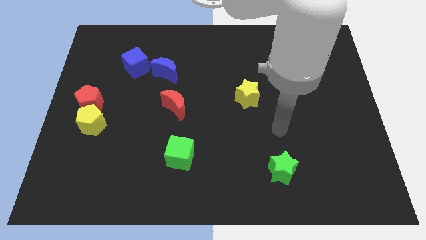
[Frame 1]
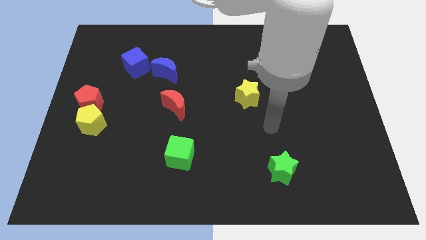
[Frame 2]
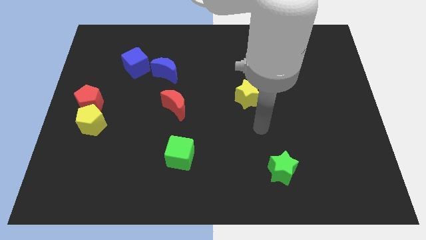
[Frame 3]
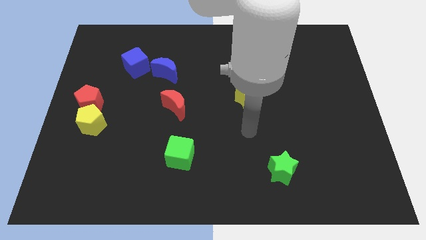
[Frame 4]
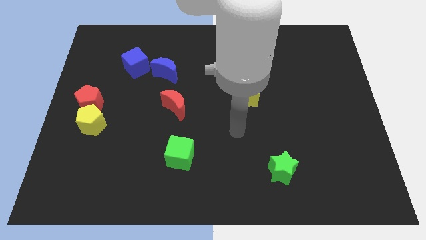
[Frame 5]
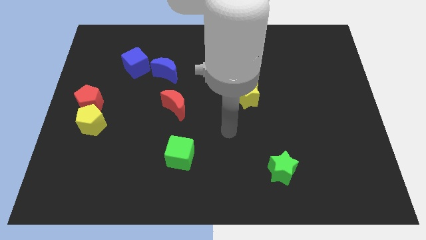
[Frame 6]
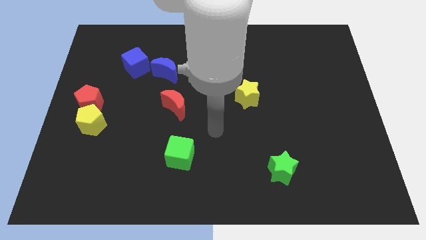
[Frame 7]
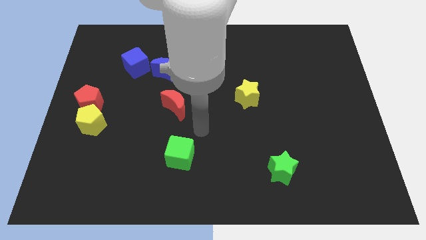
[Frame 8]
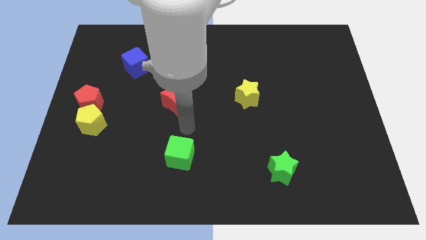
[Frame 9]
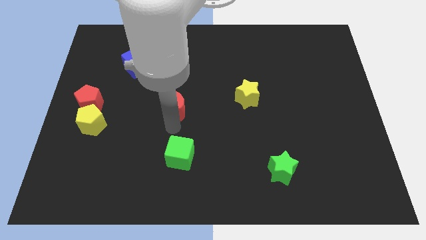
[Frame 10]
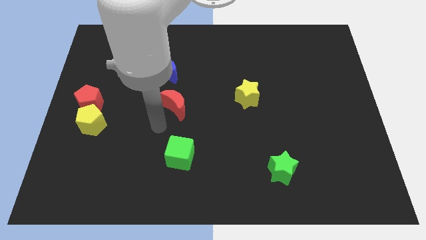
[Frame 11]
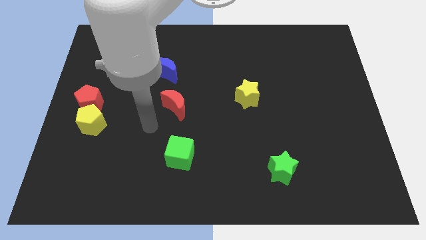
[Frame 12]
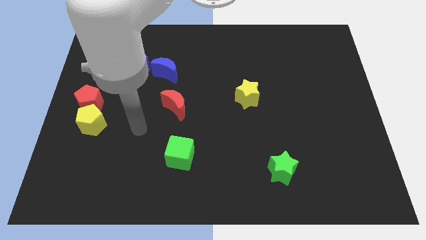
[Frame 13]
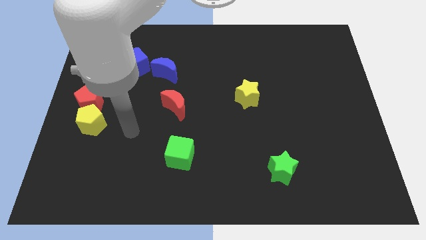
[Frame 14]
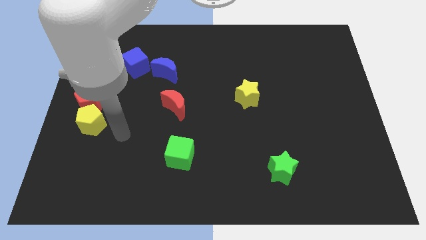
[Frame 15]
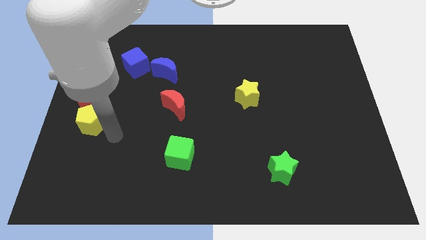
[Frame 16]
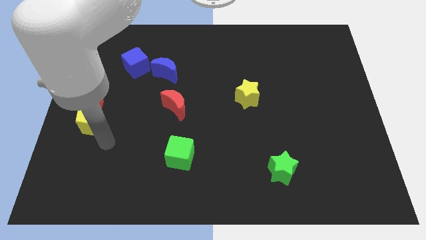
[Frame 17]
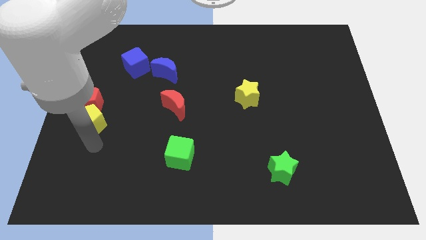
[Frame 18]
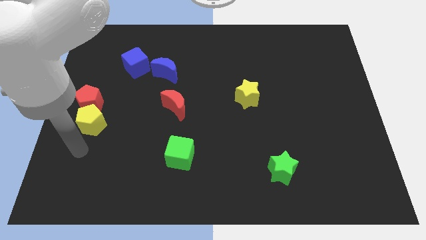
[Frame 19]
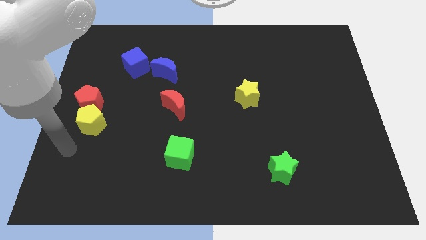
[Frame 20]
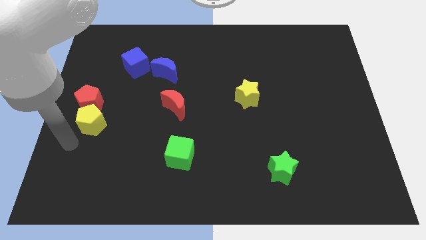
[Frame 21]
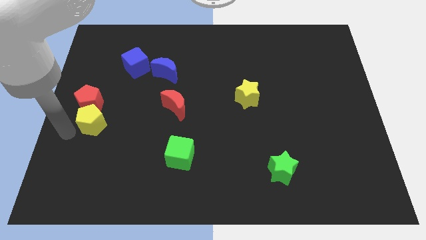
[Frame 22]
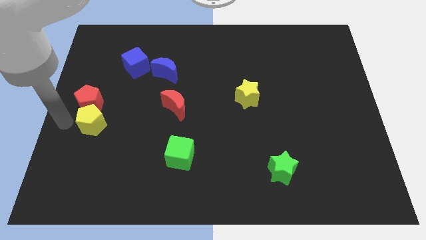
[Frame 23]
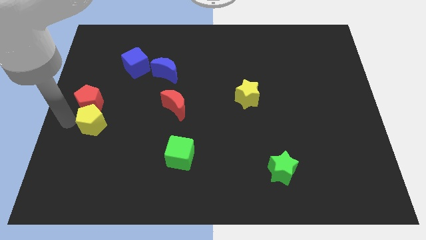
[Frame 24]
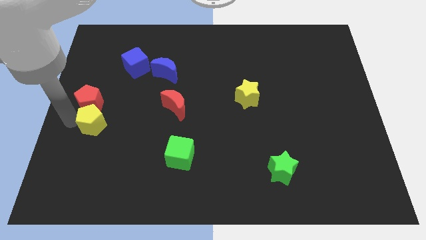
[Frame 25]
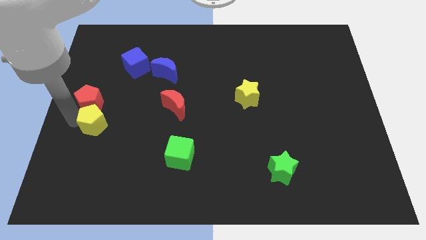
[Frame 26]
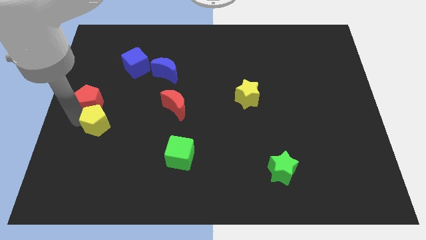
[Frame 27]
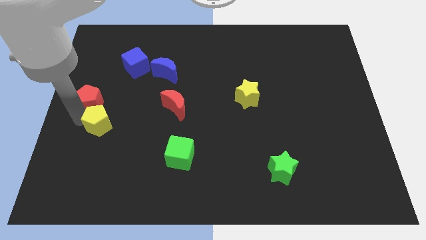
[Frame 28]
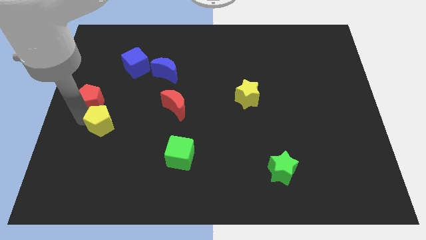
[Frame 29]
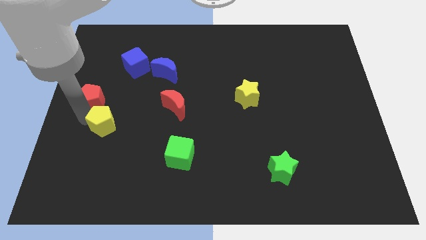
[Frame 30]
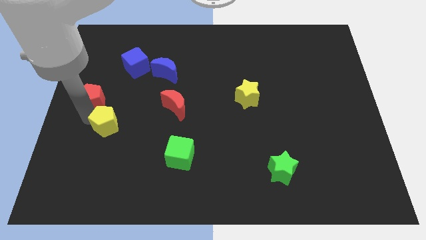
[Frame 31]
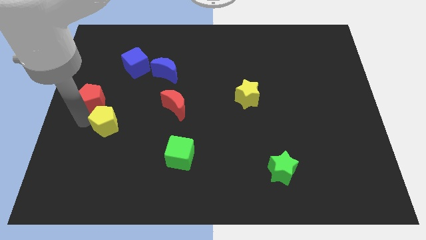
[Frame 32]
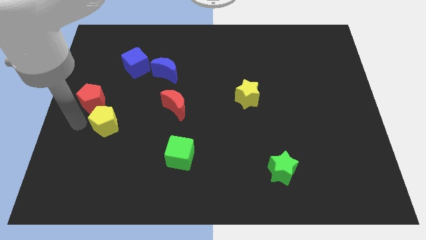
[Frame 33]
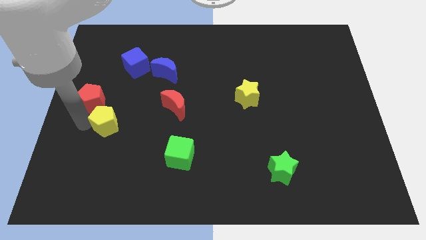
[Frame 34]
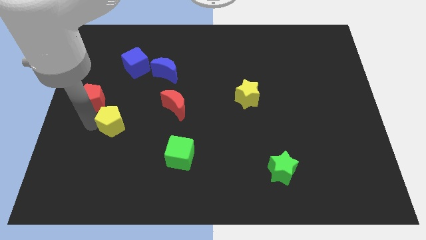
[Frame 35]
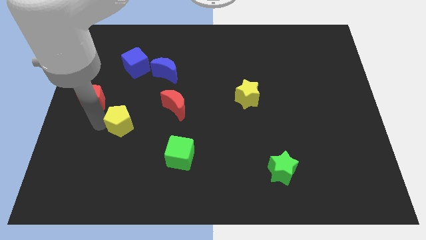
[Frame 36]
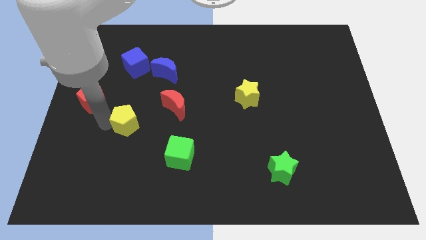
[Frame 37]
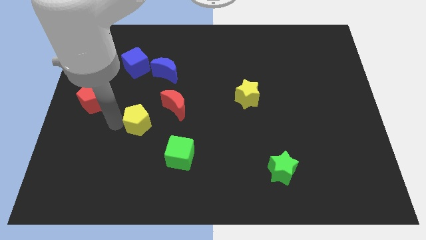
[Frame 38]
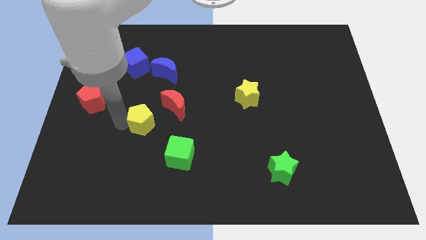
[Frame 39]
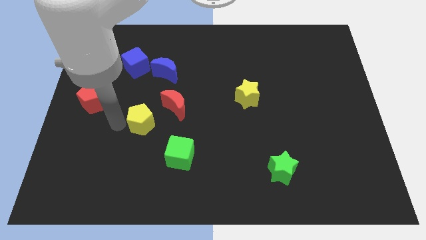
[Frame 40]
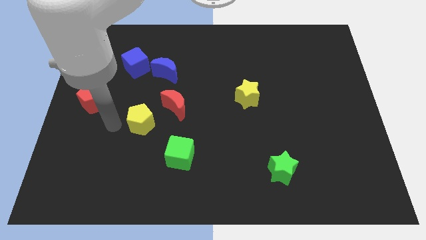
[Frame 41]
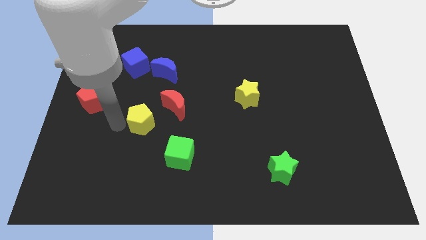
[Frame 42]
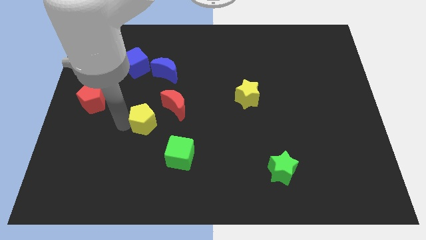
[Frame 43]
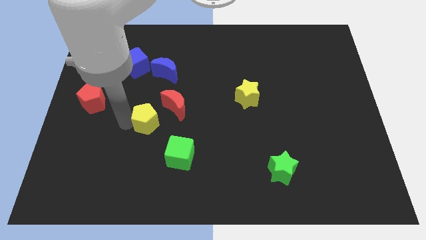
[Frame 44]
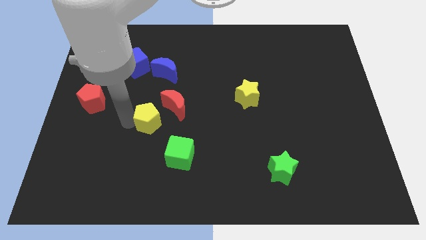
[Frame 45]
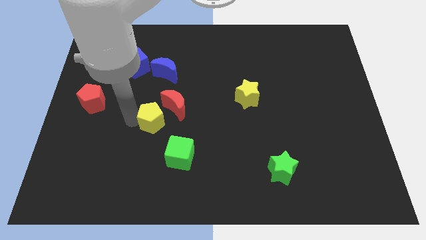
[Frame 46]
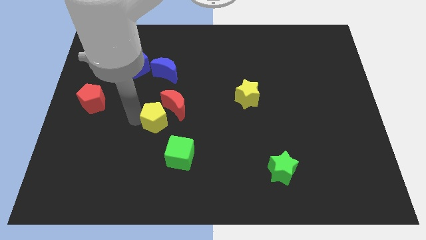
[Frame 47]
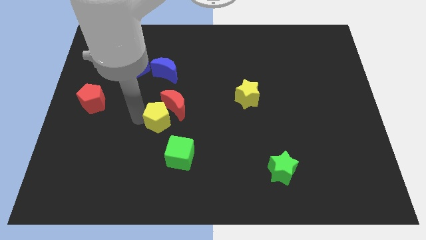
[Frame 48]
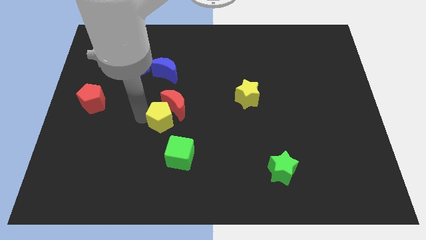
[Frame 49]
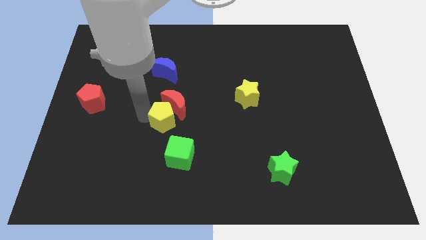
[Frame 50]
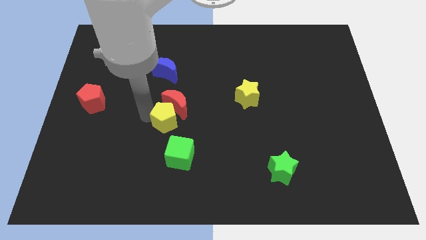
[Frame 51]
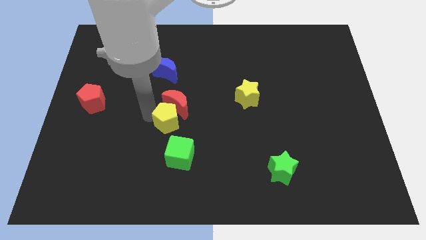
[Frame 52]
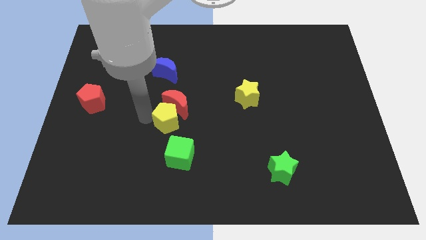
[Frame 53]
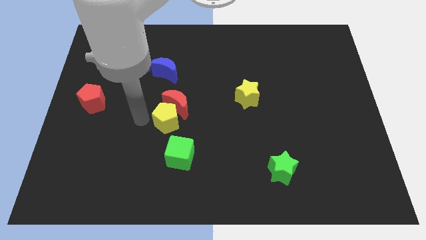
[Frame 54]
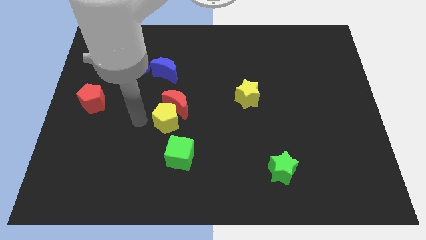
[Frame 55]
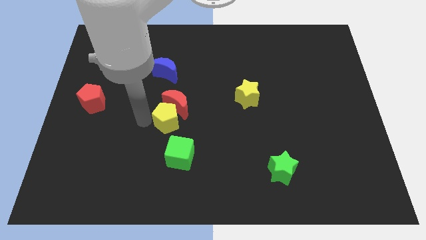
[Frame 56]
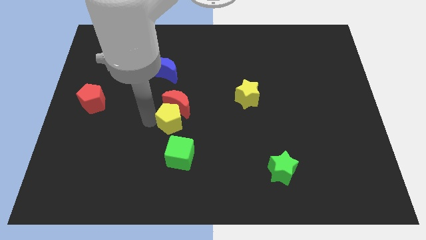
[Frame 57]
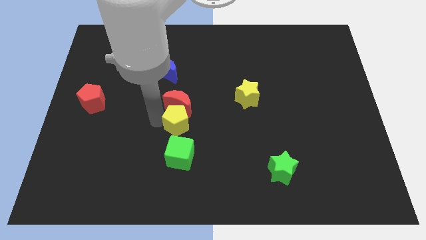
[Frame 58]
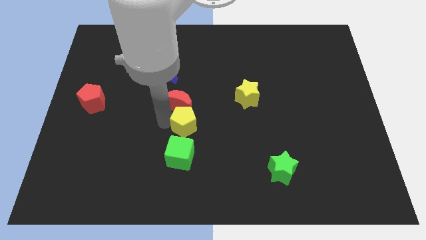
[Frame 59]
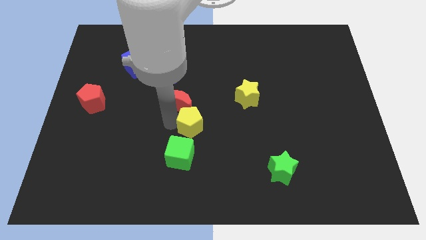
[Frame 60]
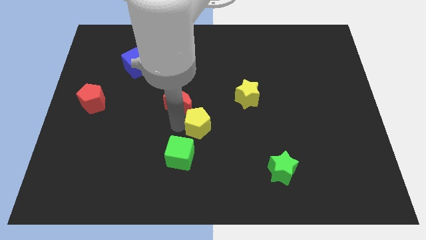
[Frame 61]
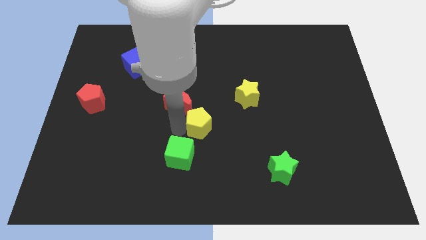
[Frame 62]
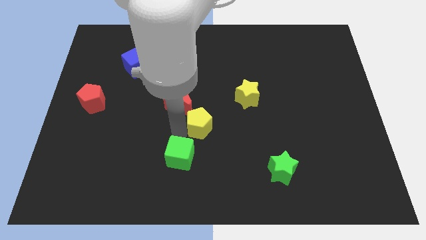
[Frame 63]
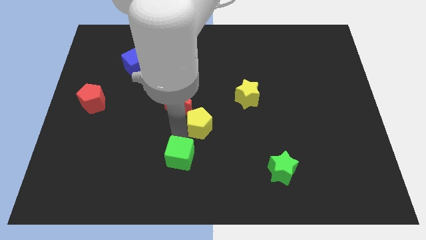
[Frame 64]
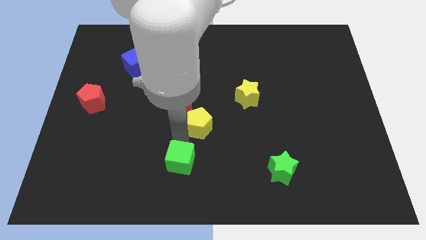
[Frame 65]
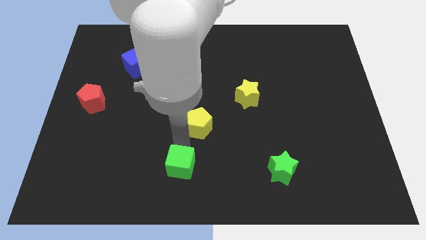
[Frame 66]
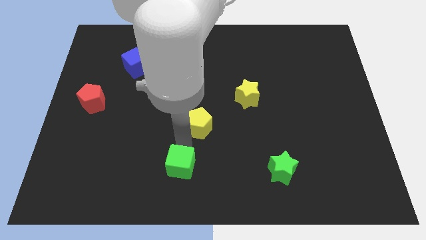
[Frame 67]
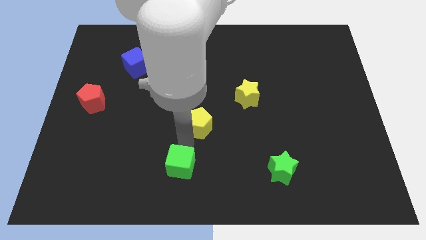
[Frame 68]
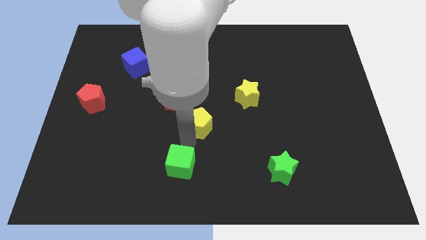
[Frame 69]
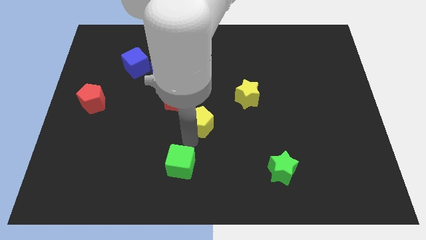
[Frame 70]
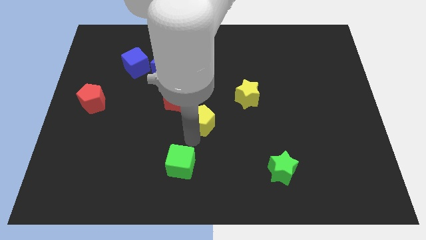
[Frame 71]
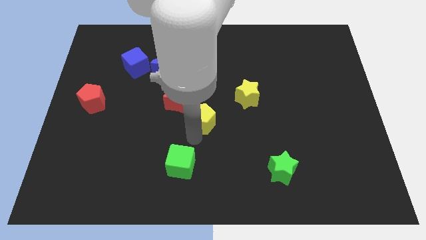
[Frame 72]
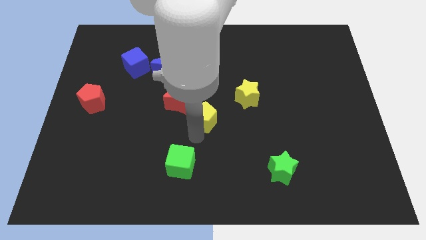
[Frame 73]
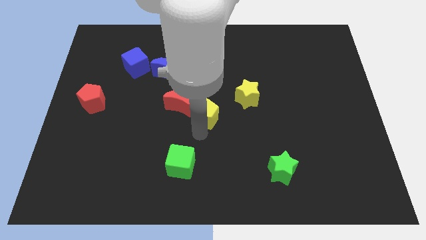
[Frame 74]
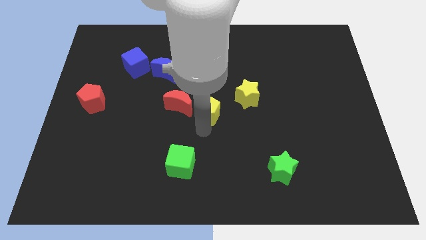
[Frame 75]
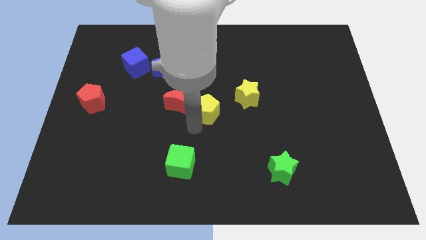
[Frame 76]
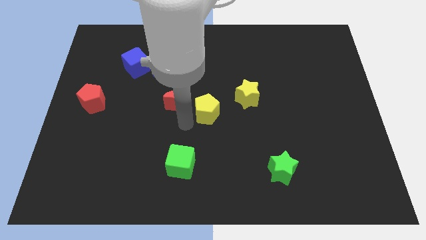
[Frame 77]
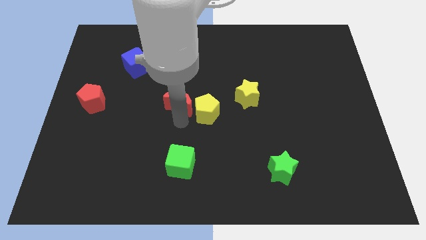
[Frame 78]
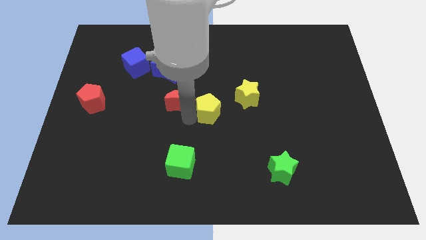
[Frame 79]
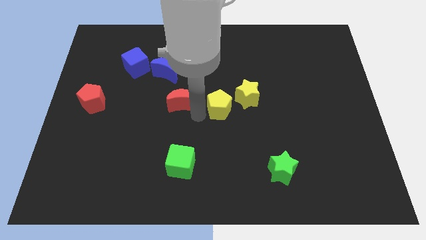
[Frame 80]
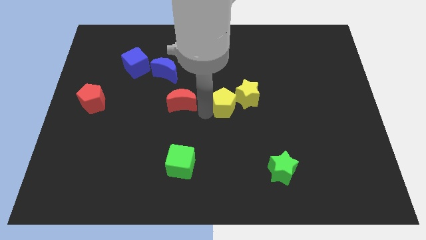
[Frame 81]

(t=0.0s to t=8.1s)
put the yellow pentagon close to the yellow star
